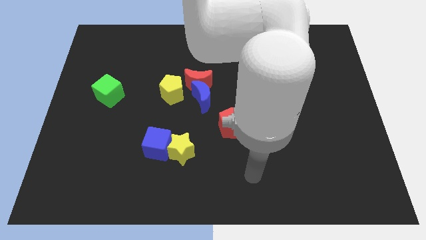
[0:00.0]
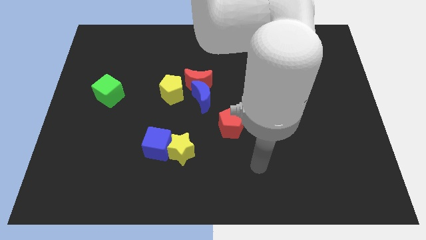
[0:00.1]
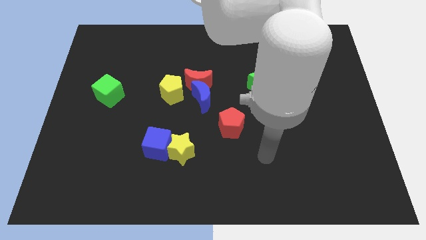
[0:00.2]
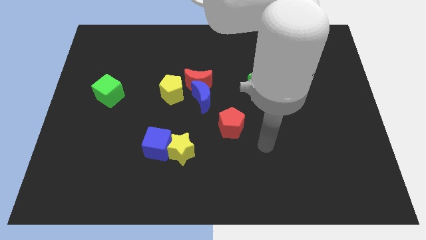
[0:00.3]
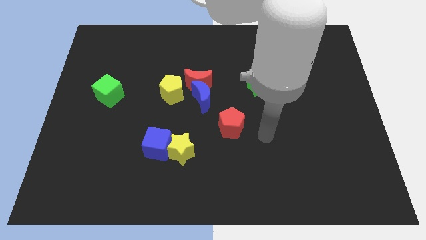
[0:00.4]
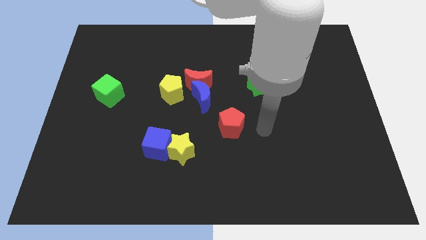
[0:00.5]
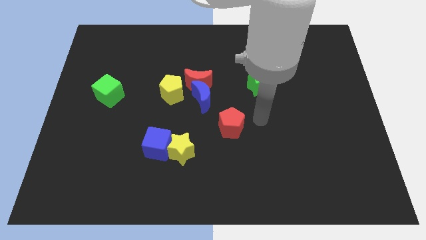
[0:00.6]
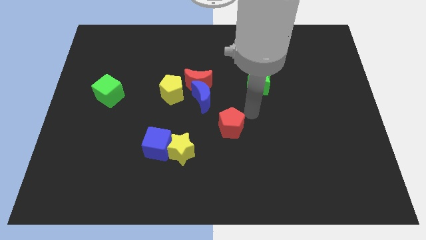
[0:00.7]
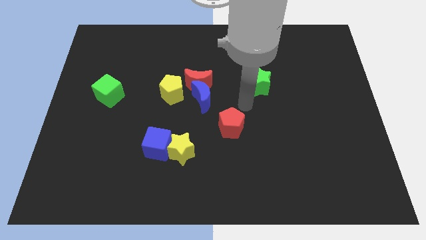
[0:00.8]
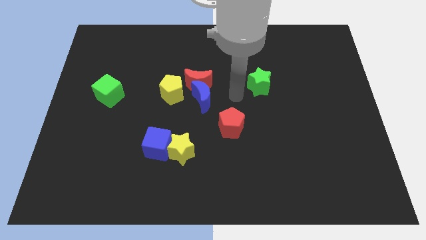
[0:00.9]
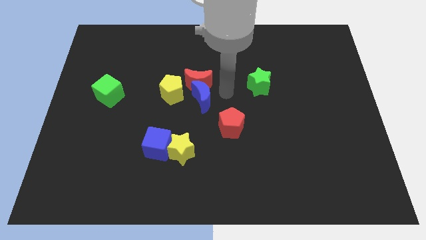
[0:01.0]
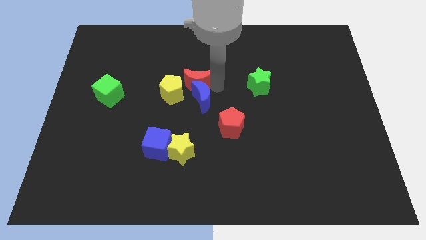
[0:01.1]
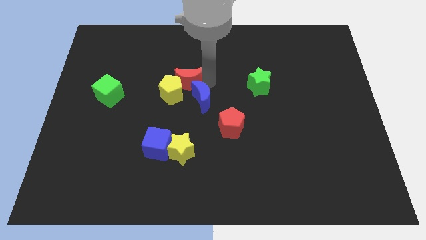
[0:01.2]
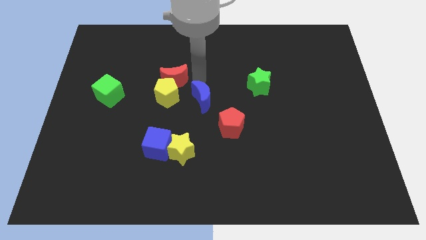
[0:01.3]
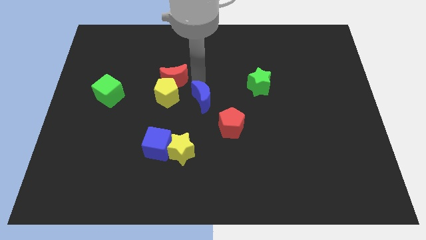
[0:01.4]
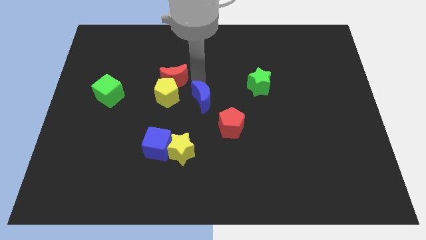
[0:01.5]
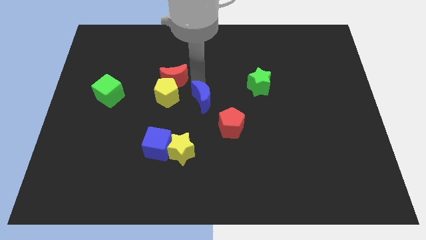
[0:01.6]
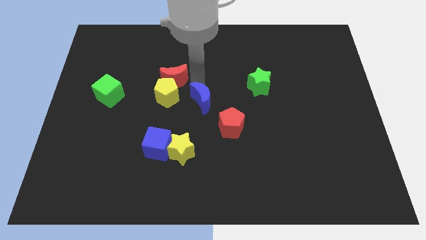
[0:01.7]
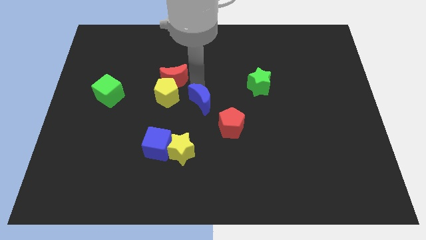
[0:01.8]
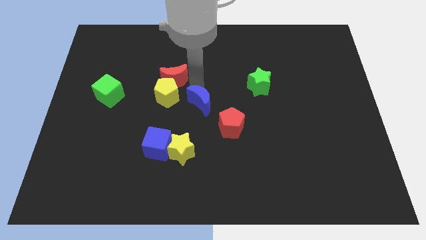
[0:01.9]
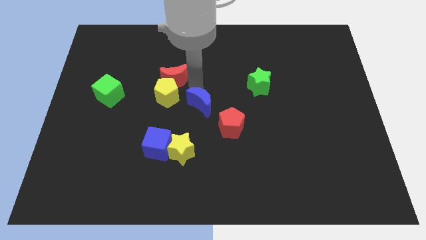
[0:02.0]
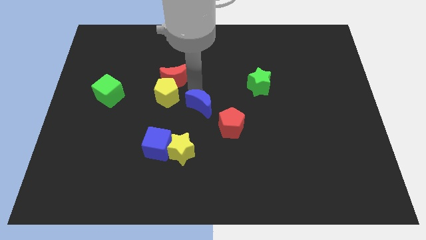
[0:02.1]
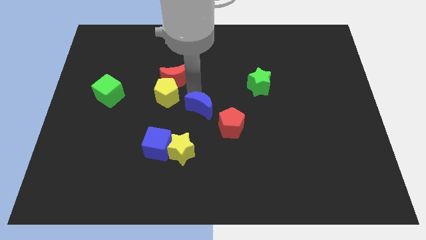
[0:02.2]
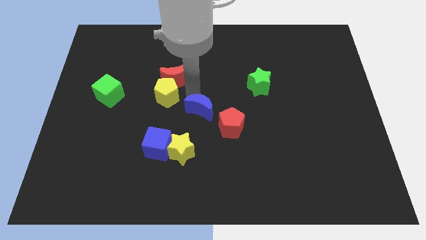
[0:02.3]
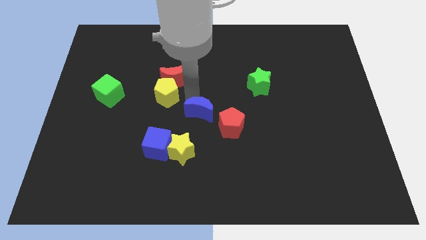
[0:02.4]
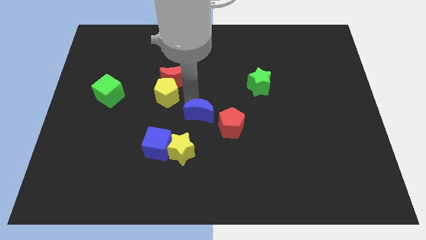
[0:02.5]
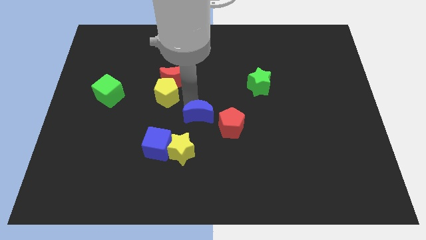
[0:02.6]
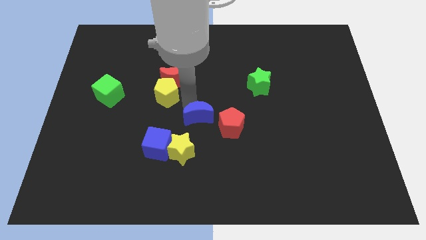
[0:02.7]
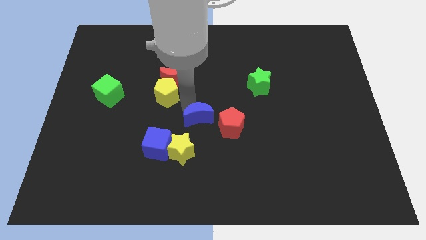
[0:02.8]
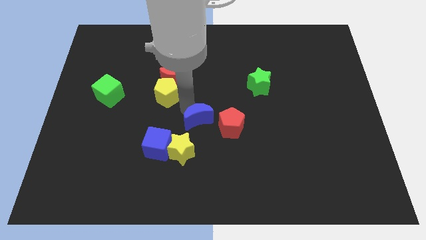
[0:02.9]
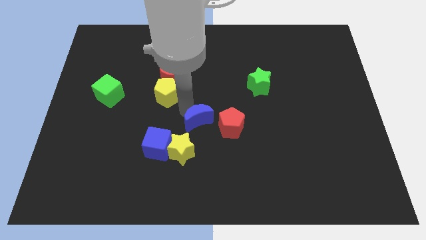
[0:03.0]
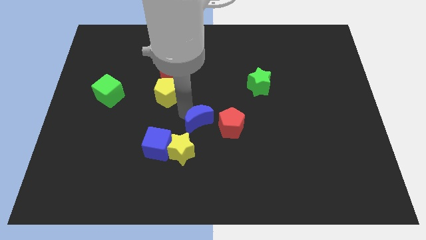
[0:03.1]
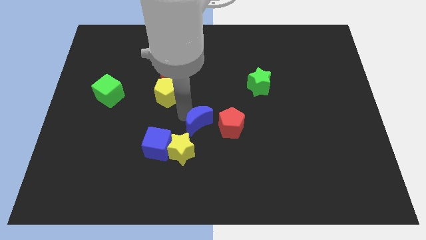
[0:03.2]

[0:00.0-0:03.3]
slightly slide the blue moon down

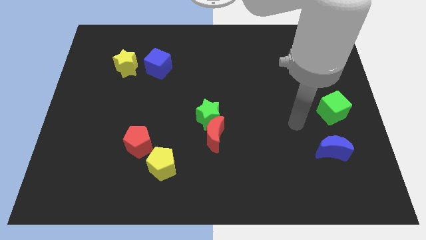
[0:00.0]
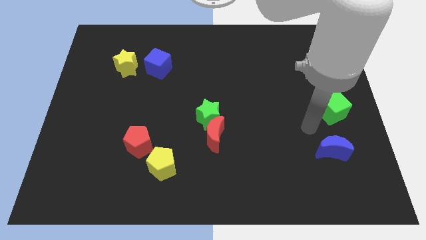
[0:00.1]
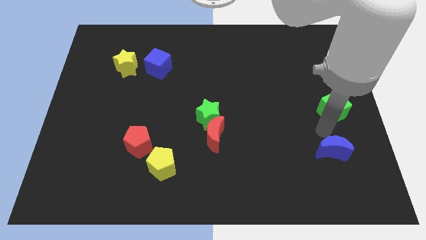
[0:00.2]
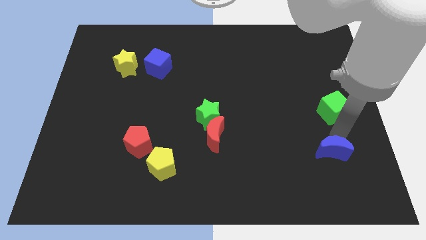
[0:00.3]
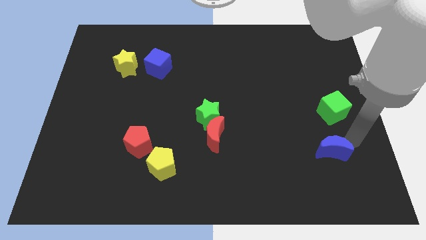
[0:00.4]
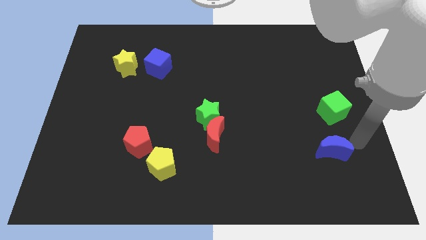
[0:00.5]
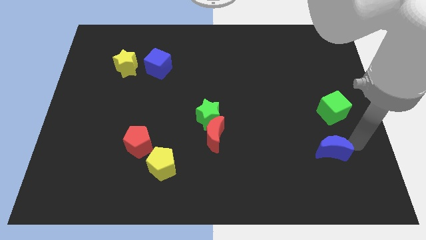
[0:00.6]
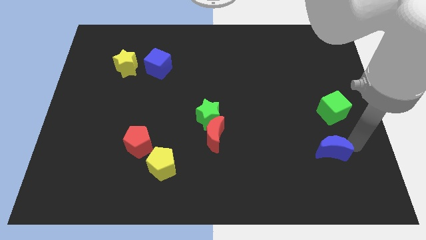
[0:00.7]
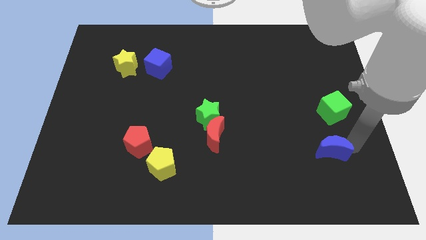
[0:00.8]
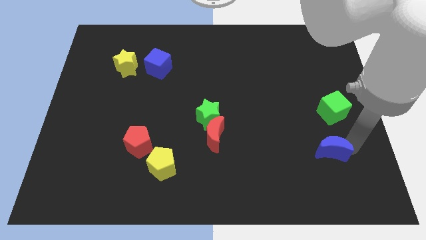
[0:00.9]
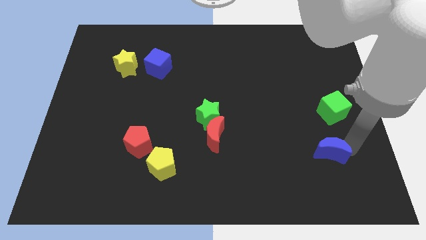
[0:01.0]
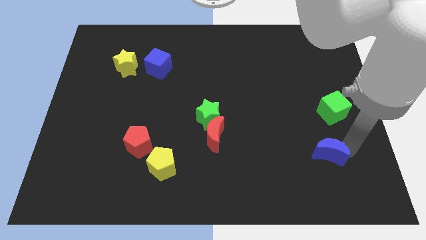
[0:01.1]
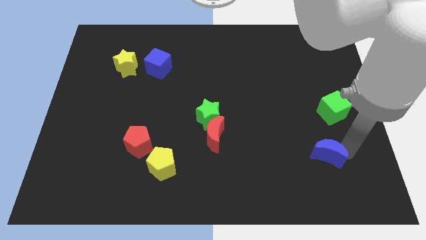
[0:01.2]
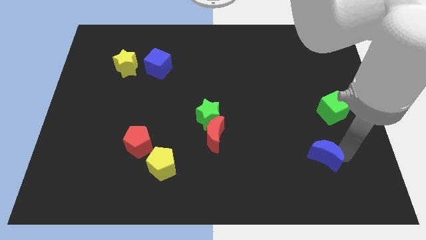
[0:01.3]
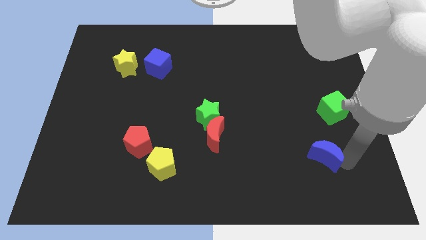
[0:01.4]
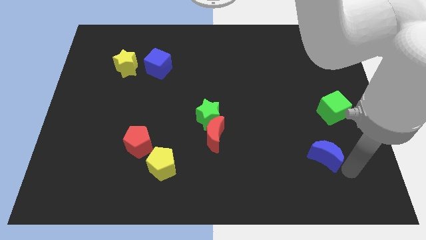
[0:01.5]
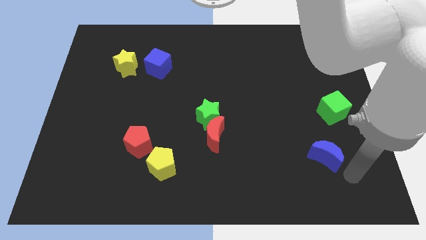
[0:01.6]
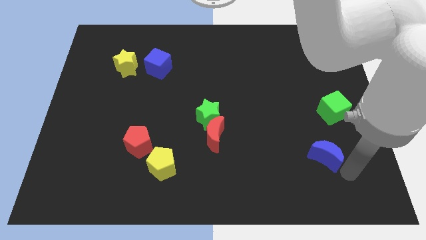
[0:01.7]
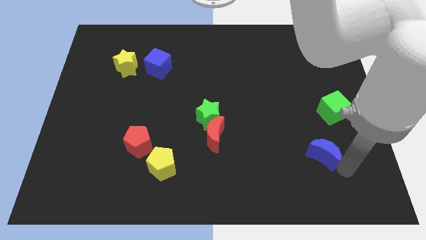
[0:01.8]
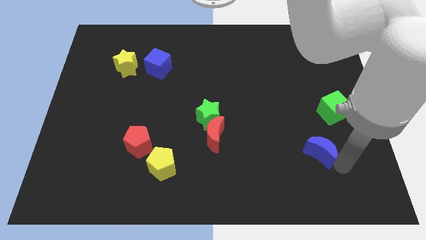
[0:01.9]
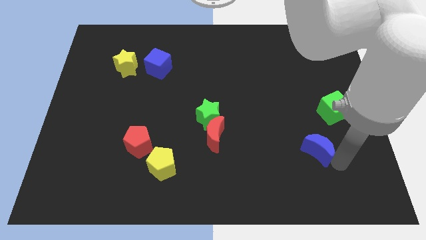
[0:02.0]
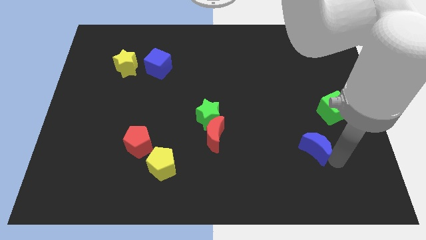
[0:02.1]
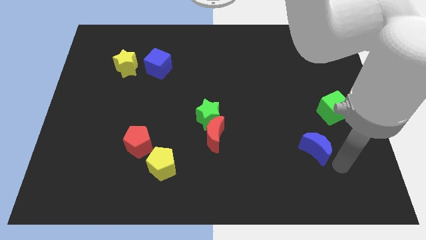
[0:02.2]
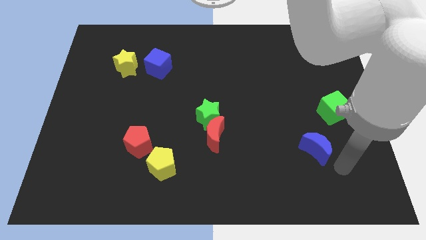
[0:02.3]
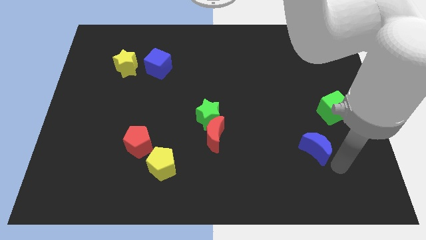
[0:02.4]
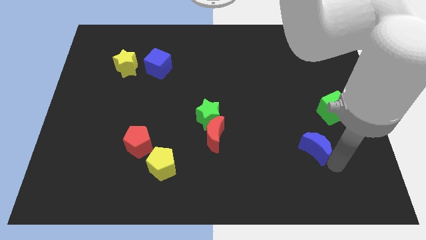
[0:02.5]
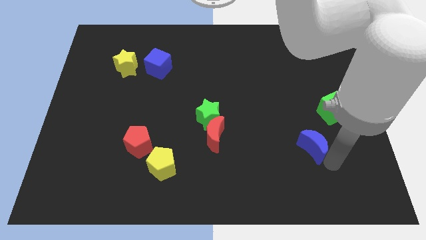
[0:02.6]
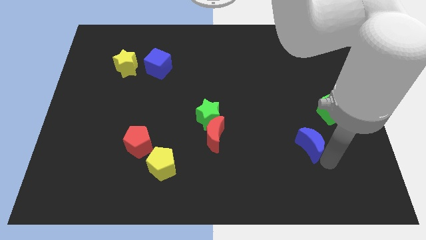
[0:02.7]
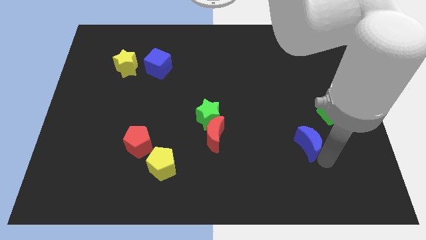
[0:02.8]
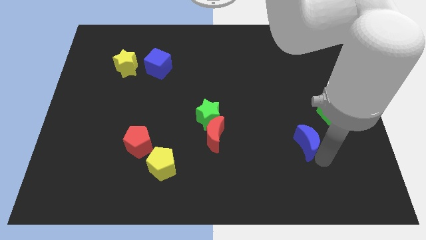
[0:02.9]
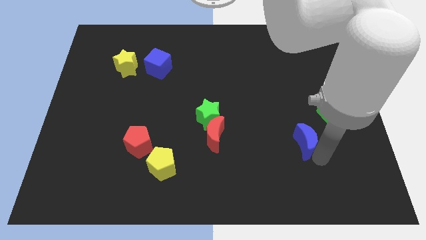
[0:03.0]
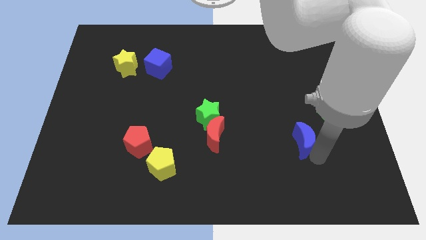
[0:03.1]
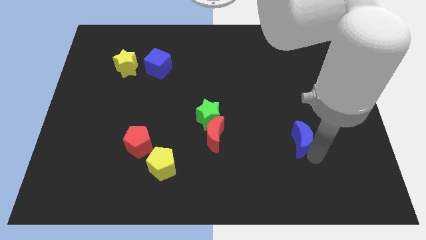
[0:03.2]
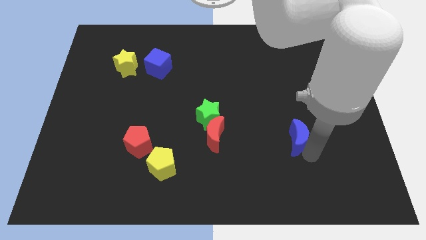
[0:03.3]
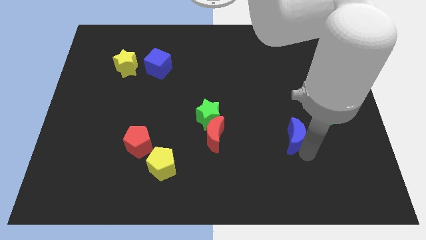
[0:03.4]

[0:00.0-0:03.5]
slightly move the blue moon diagonally up and to the left

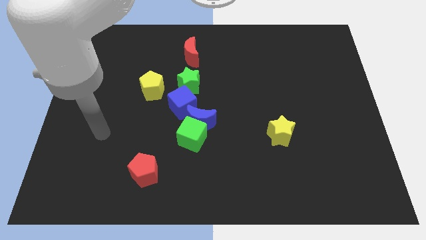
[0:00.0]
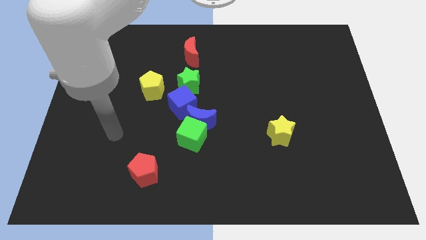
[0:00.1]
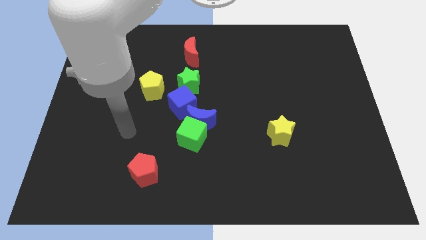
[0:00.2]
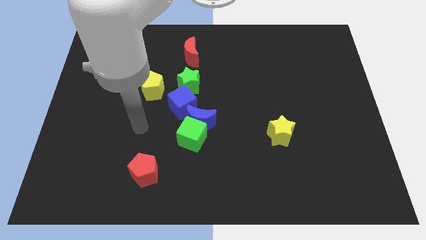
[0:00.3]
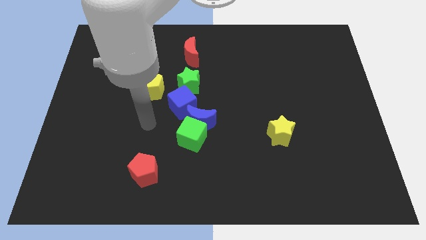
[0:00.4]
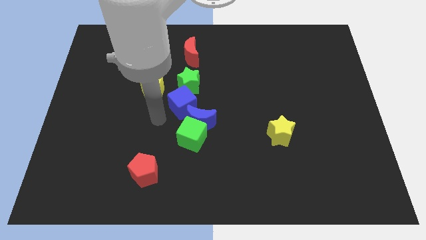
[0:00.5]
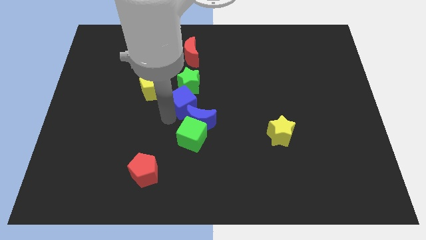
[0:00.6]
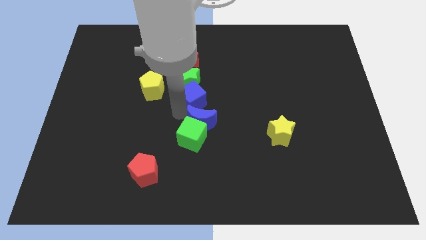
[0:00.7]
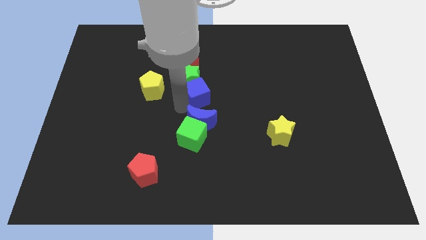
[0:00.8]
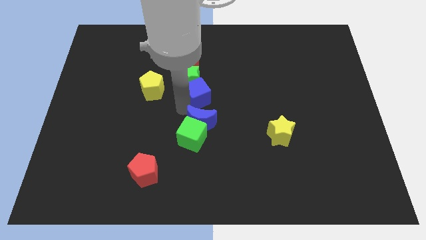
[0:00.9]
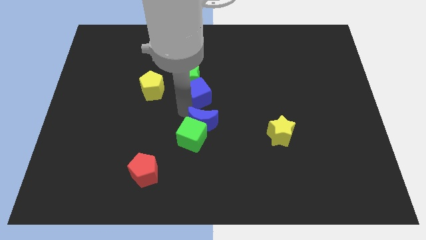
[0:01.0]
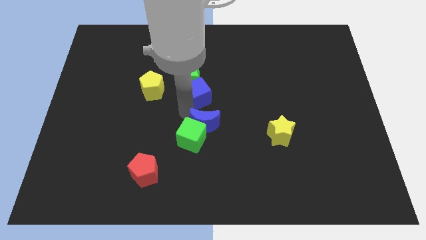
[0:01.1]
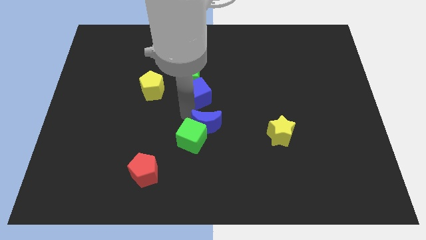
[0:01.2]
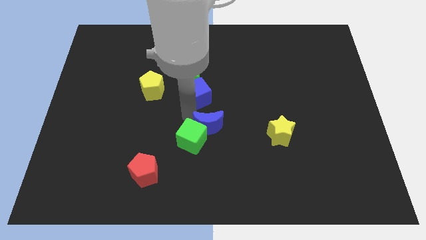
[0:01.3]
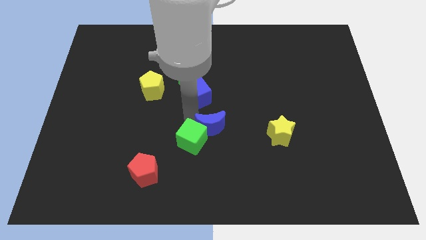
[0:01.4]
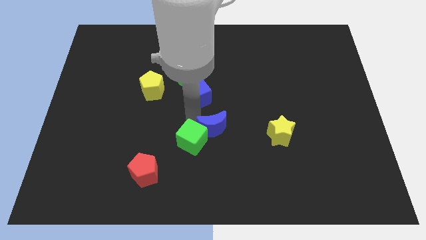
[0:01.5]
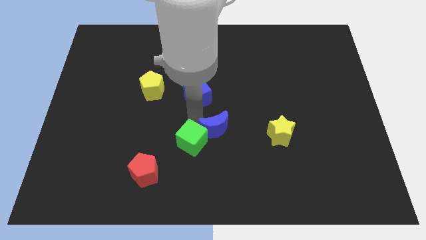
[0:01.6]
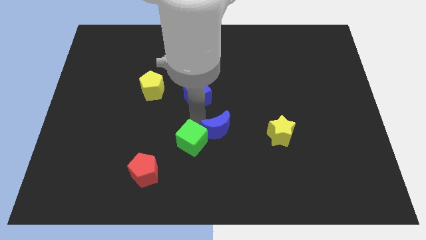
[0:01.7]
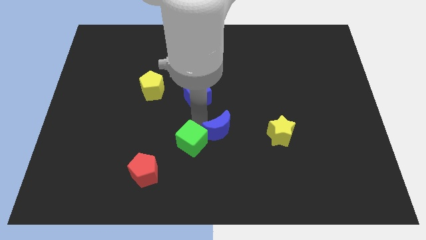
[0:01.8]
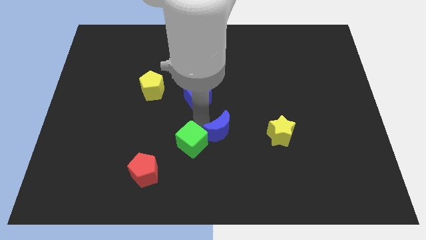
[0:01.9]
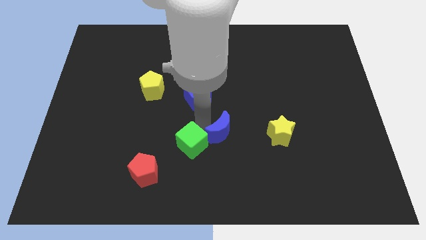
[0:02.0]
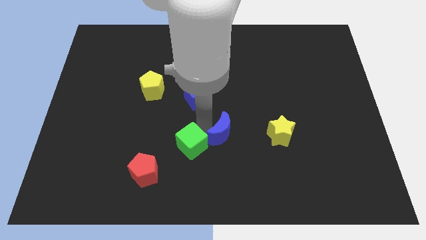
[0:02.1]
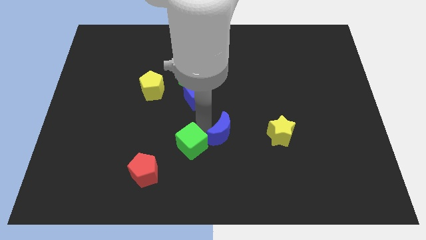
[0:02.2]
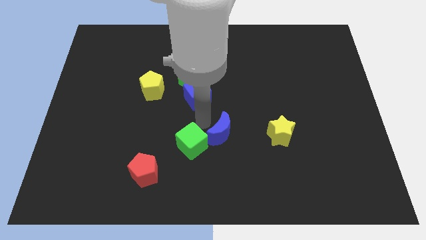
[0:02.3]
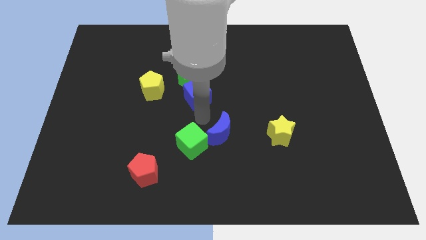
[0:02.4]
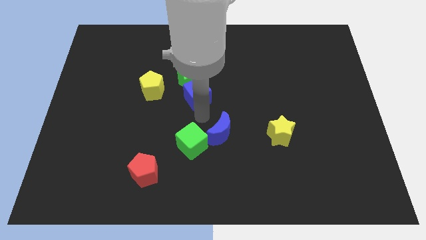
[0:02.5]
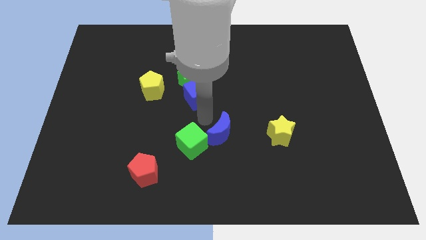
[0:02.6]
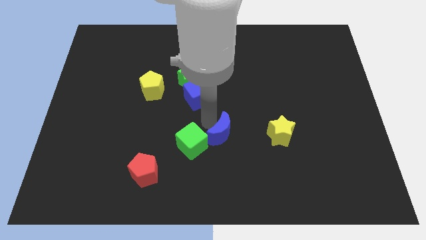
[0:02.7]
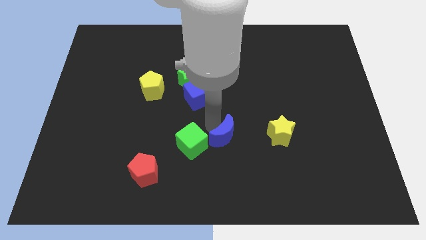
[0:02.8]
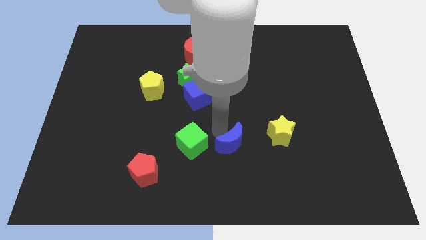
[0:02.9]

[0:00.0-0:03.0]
slightly slide the blue moon diagonally down and right
